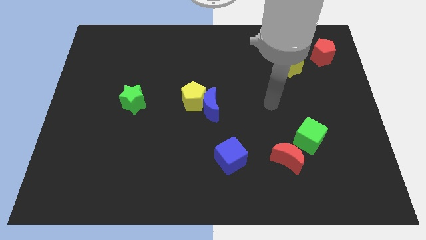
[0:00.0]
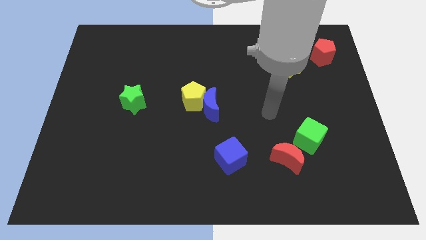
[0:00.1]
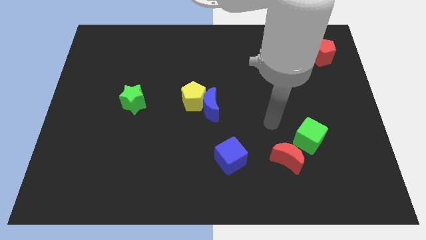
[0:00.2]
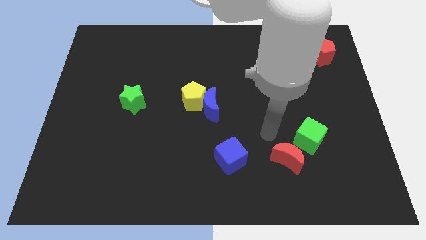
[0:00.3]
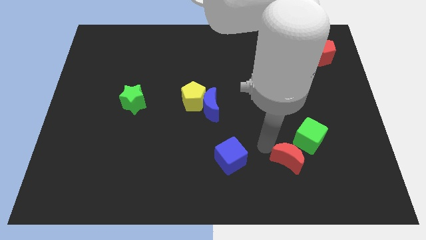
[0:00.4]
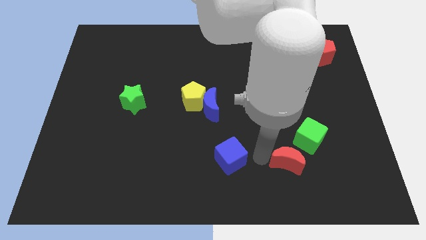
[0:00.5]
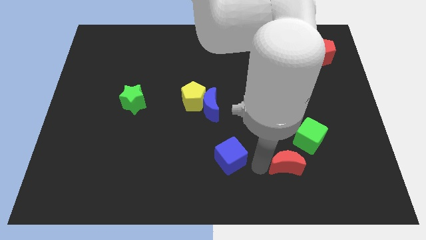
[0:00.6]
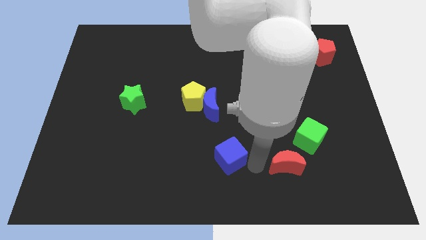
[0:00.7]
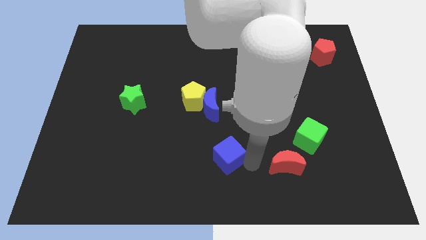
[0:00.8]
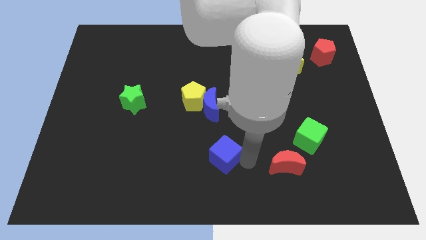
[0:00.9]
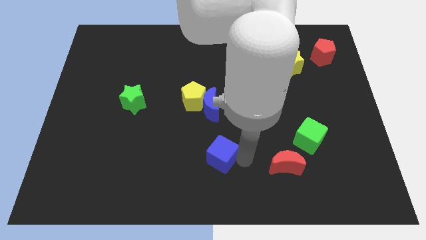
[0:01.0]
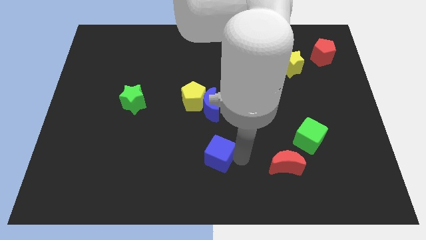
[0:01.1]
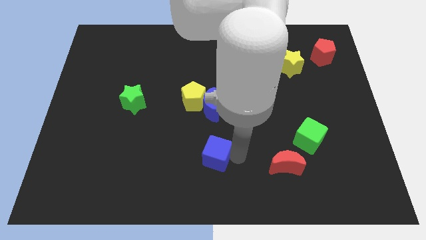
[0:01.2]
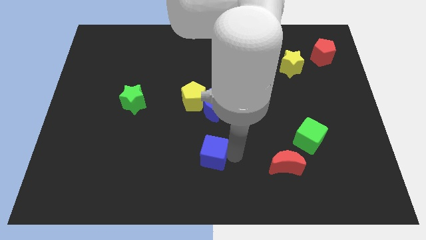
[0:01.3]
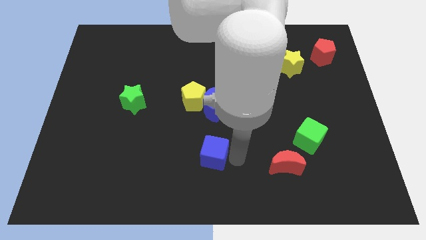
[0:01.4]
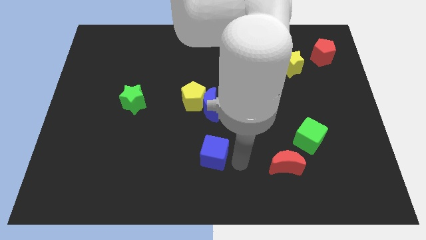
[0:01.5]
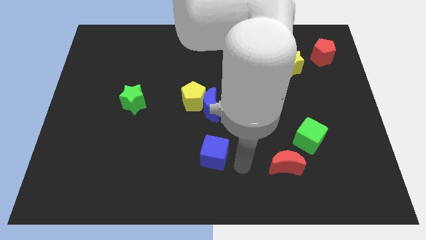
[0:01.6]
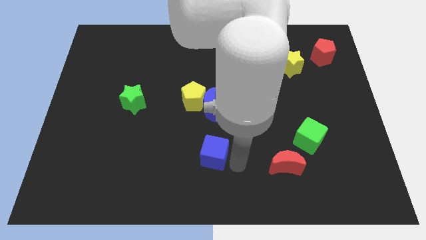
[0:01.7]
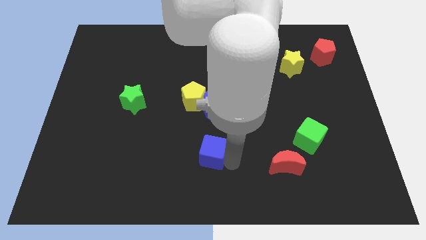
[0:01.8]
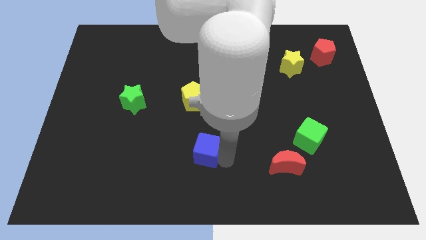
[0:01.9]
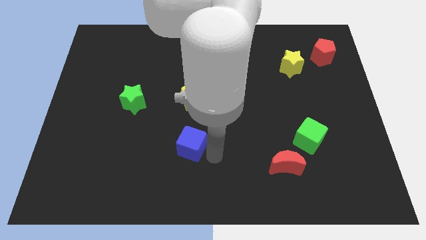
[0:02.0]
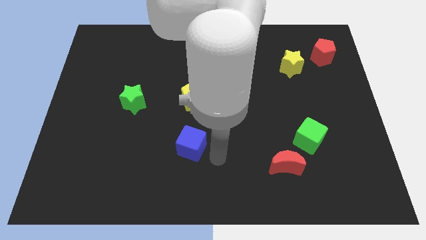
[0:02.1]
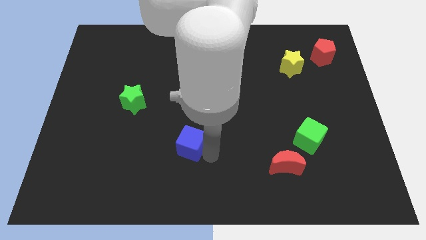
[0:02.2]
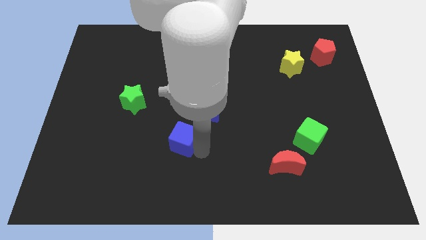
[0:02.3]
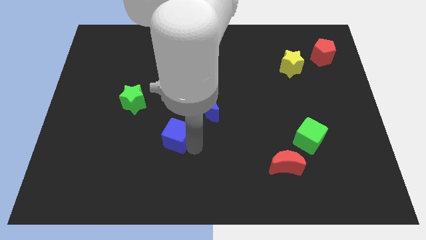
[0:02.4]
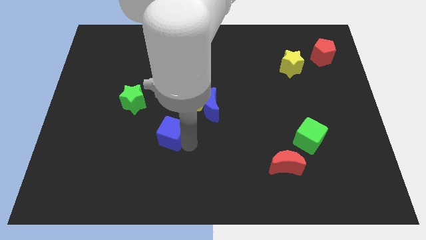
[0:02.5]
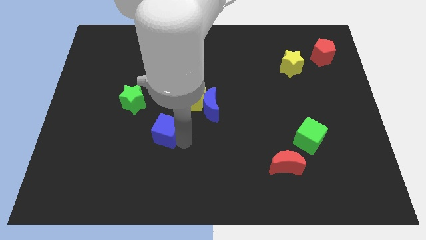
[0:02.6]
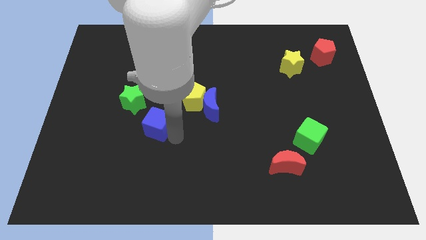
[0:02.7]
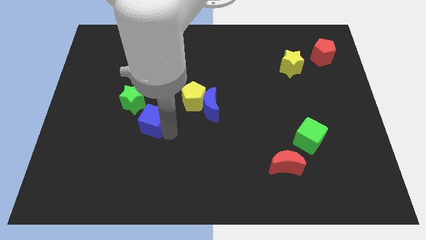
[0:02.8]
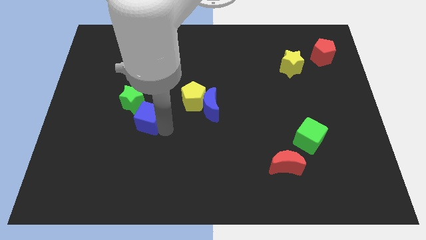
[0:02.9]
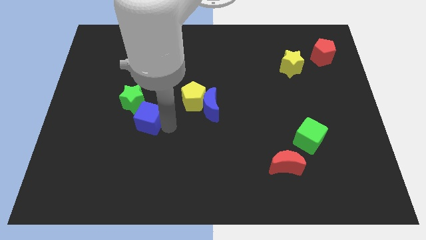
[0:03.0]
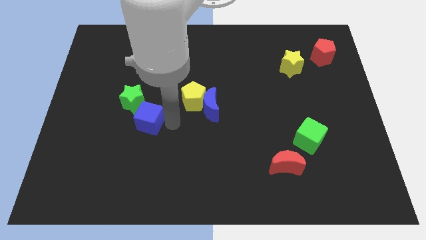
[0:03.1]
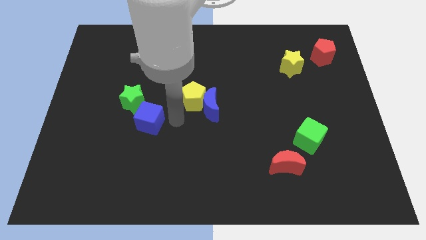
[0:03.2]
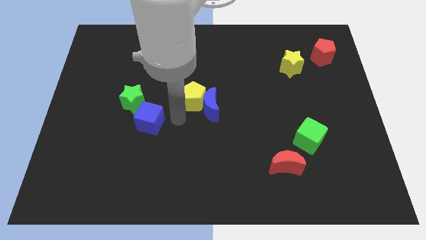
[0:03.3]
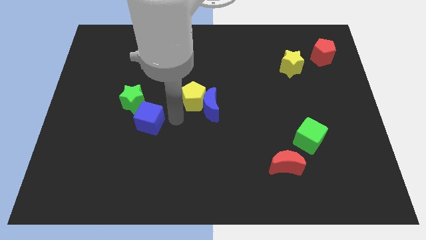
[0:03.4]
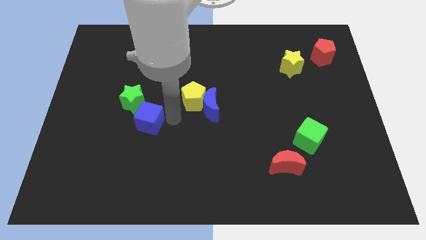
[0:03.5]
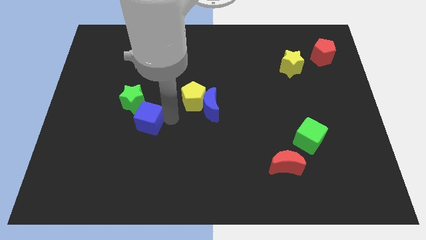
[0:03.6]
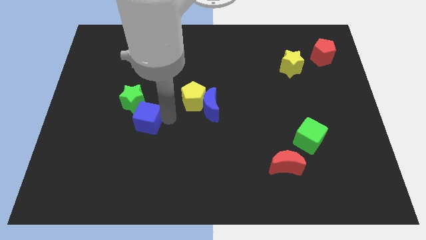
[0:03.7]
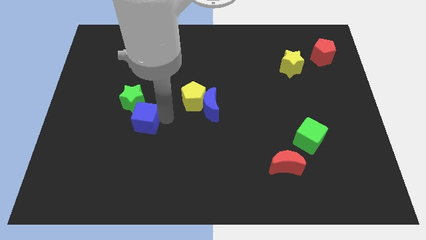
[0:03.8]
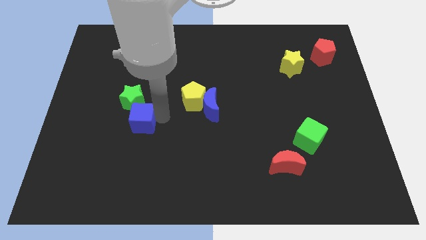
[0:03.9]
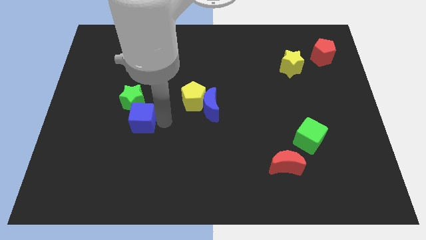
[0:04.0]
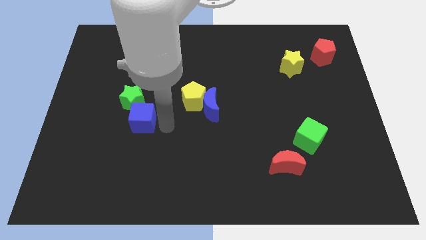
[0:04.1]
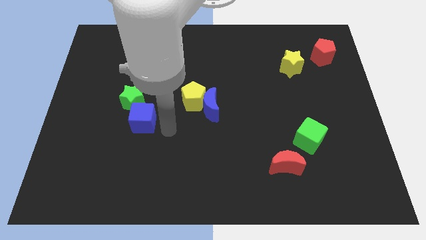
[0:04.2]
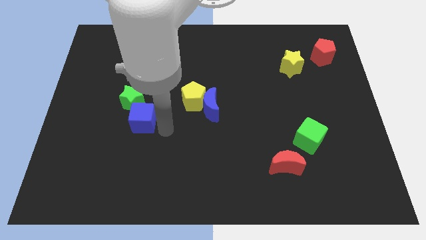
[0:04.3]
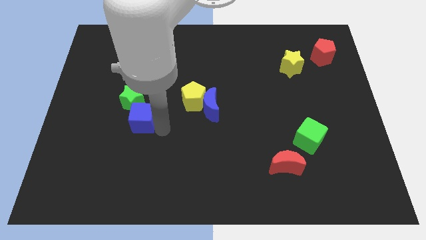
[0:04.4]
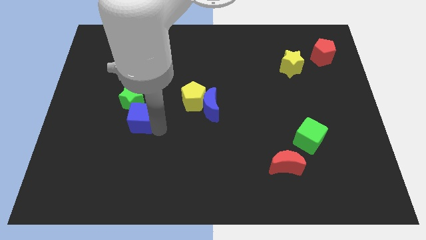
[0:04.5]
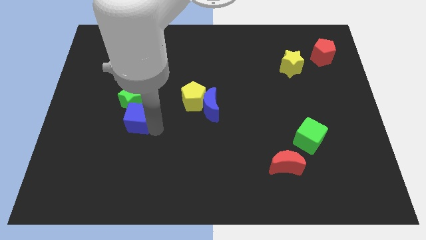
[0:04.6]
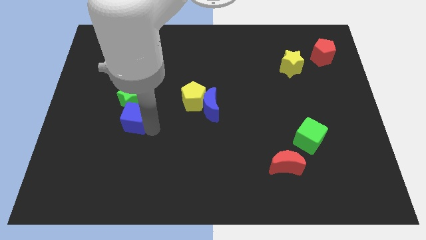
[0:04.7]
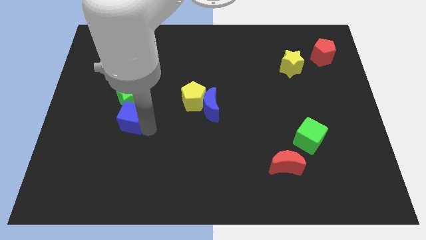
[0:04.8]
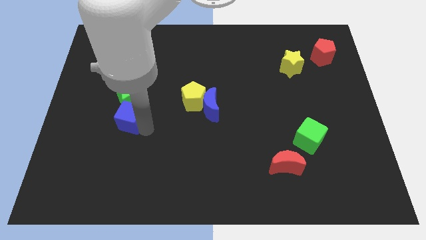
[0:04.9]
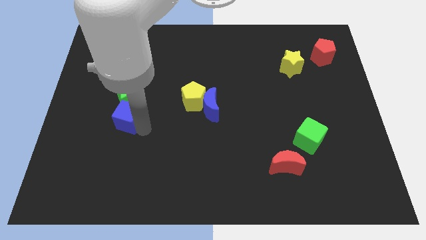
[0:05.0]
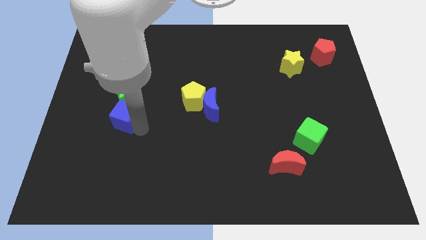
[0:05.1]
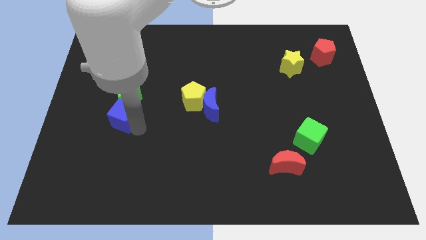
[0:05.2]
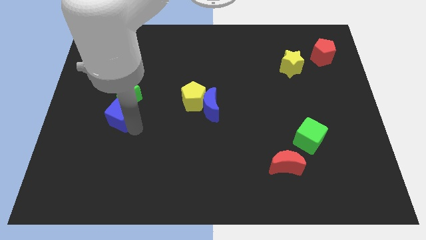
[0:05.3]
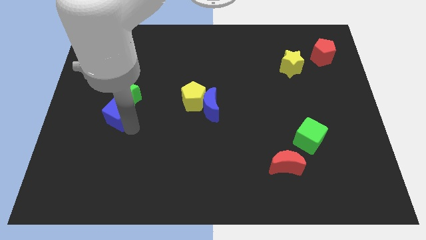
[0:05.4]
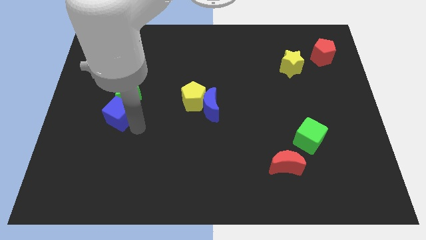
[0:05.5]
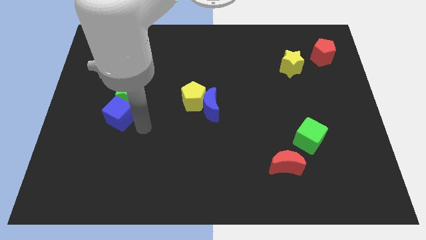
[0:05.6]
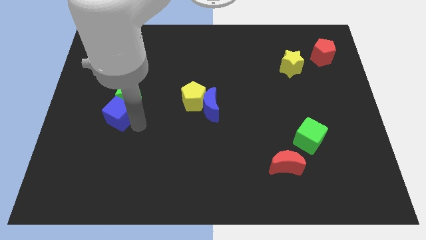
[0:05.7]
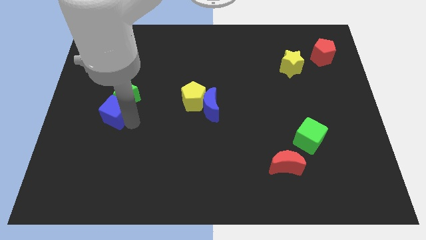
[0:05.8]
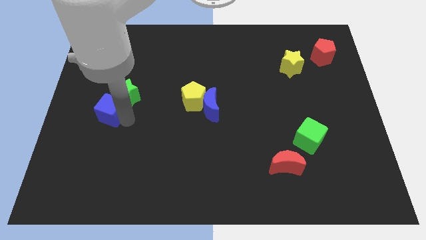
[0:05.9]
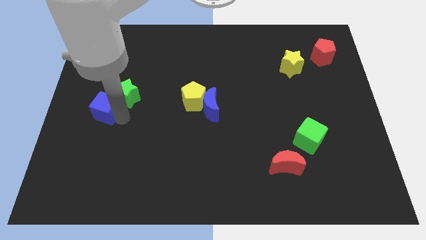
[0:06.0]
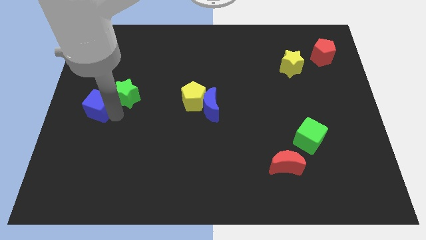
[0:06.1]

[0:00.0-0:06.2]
put the blue cube to the left side of the board
